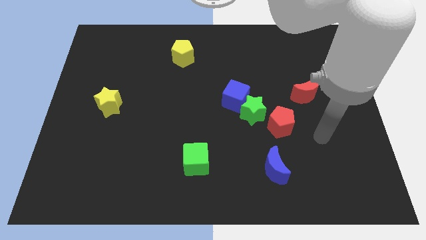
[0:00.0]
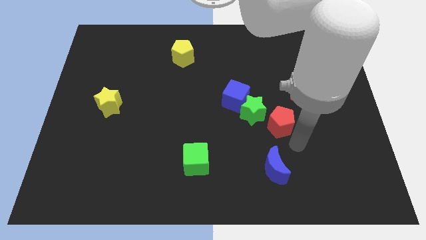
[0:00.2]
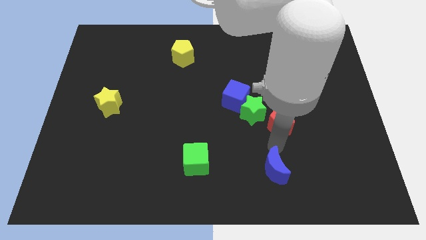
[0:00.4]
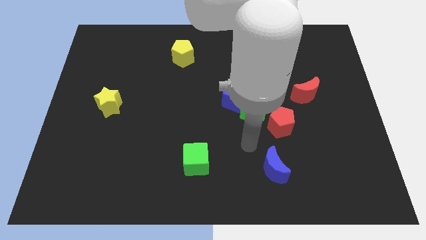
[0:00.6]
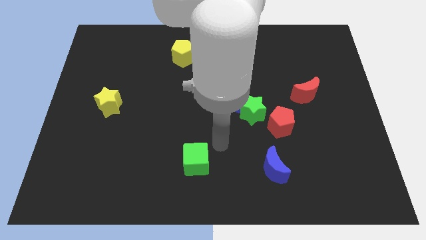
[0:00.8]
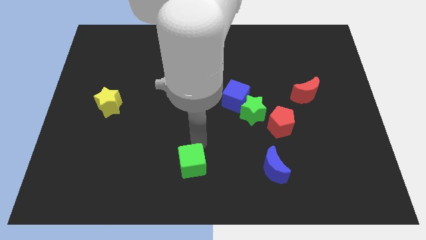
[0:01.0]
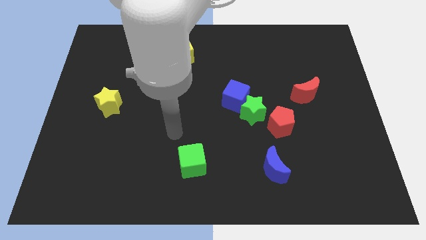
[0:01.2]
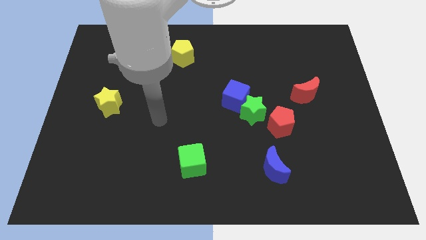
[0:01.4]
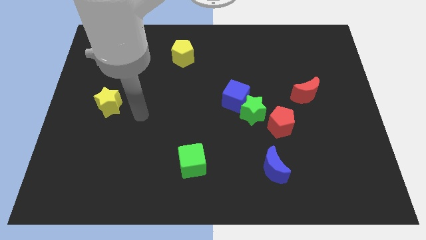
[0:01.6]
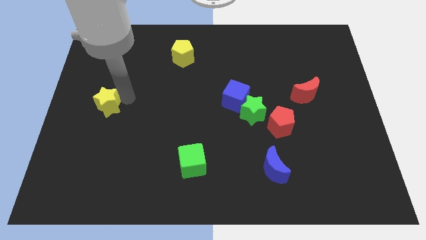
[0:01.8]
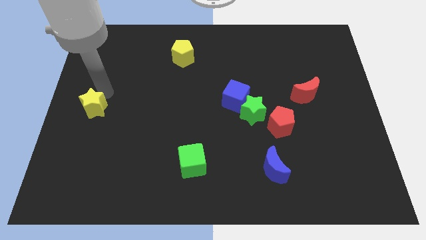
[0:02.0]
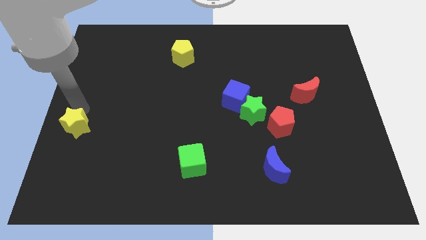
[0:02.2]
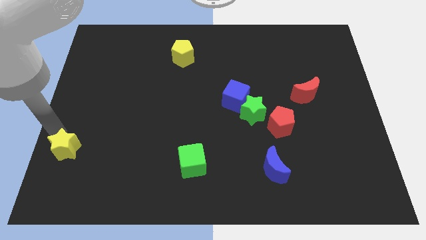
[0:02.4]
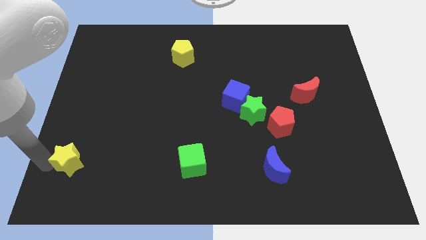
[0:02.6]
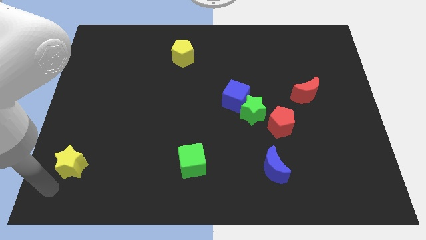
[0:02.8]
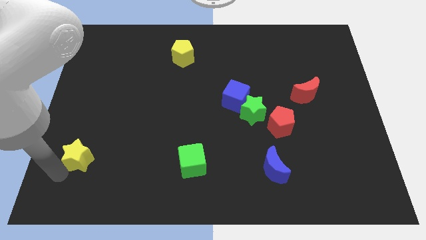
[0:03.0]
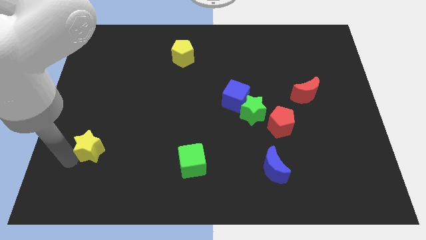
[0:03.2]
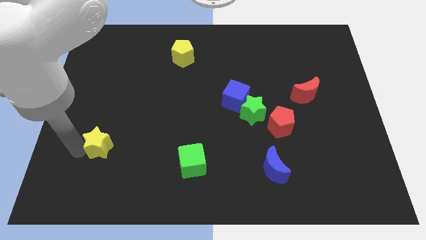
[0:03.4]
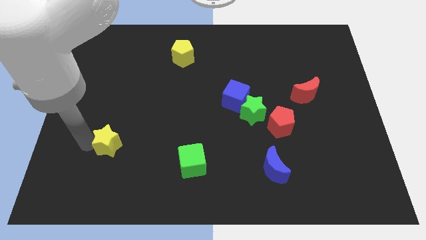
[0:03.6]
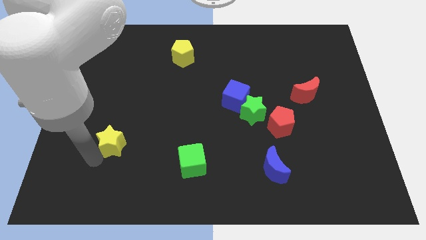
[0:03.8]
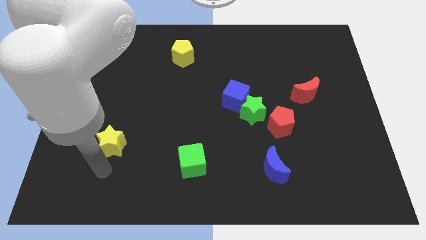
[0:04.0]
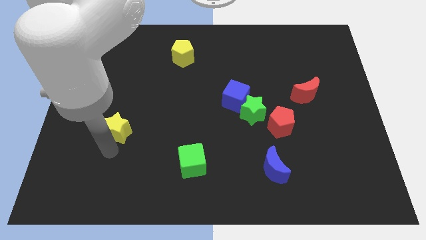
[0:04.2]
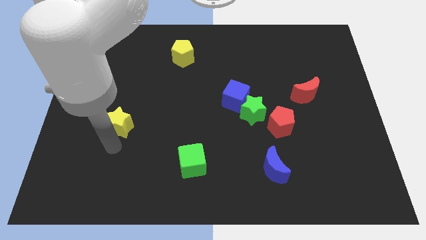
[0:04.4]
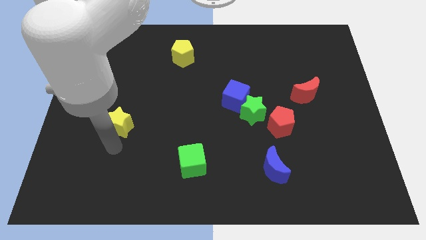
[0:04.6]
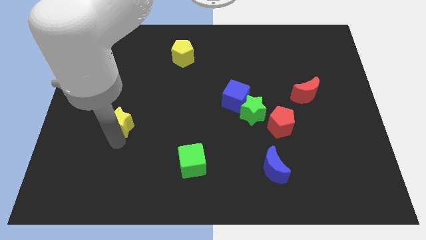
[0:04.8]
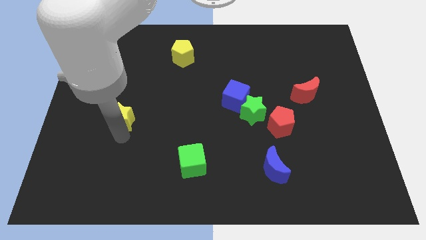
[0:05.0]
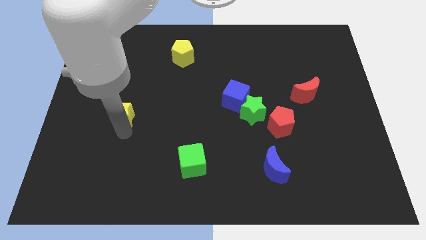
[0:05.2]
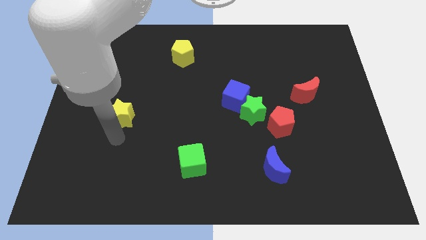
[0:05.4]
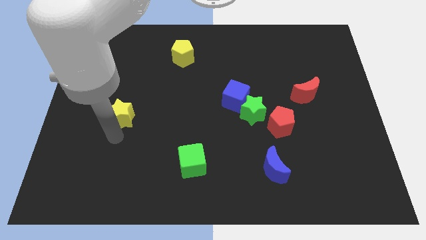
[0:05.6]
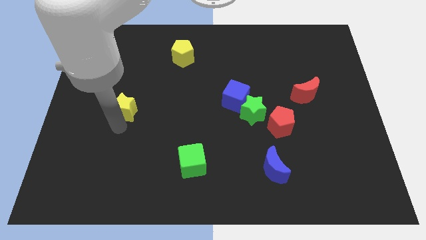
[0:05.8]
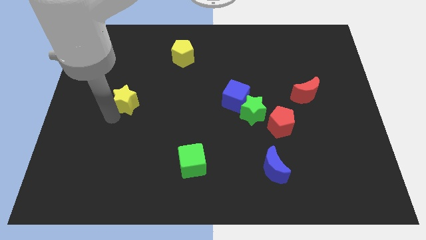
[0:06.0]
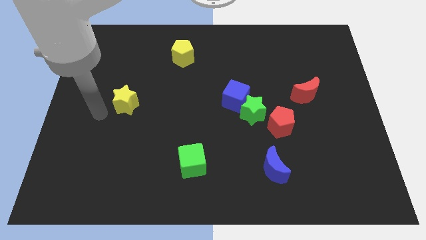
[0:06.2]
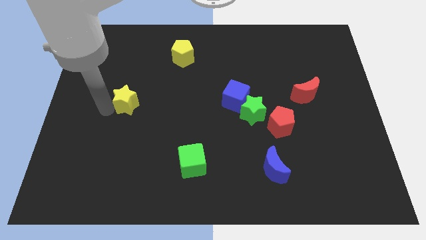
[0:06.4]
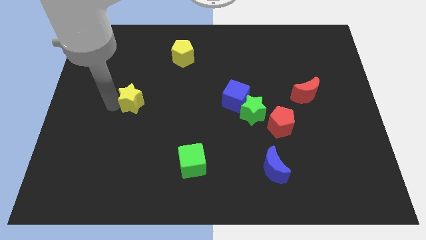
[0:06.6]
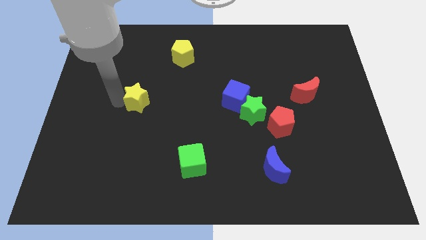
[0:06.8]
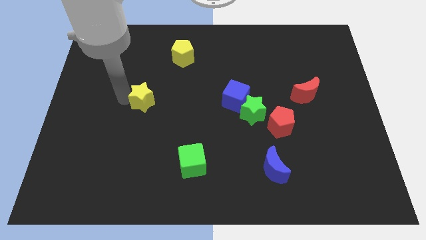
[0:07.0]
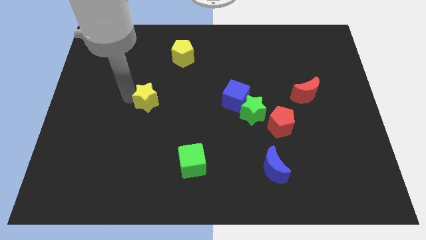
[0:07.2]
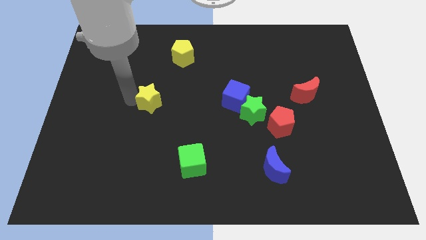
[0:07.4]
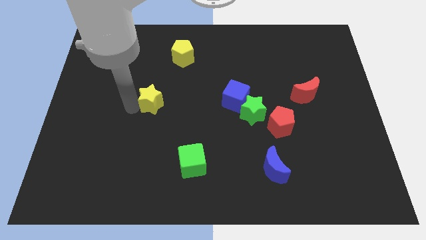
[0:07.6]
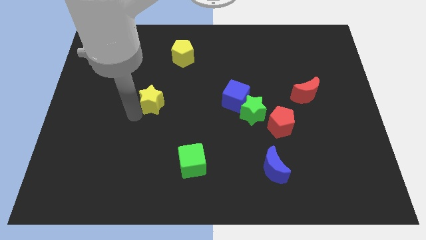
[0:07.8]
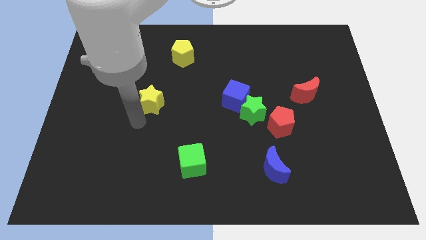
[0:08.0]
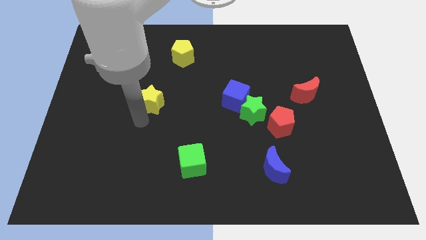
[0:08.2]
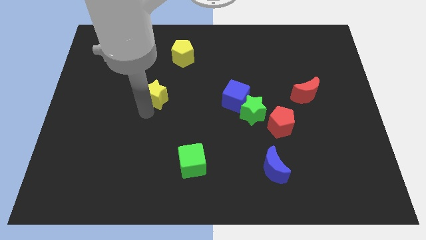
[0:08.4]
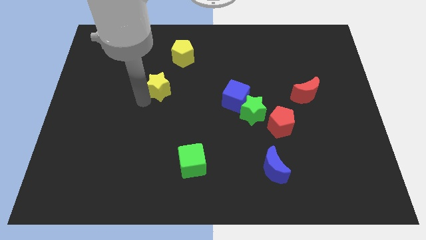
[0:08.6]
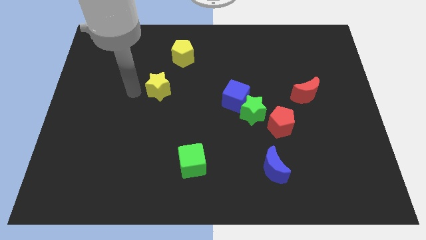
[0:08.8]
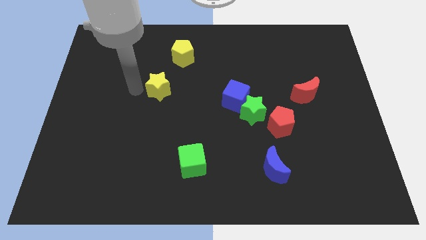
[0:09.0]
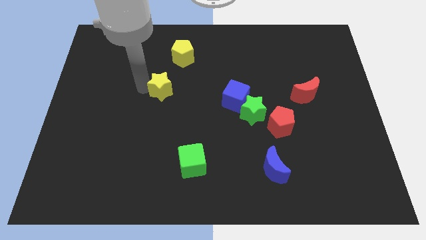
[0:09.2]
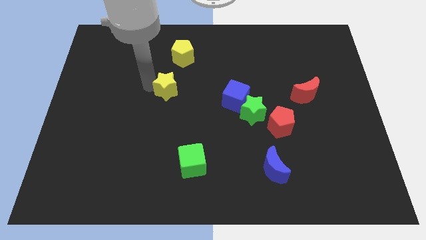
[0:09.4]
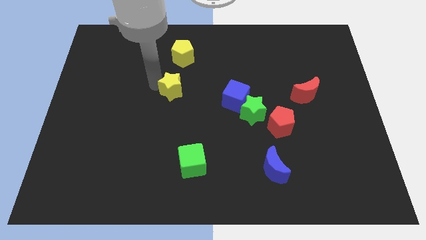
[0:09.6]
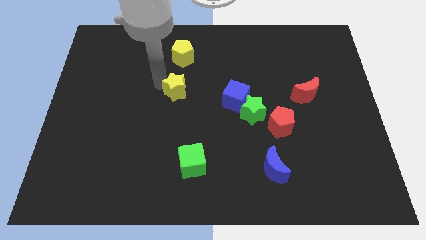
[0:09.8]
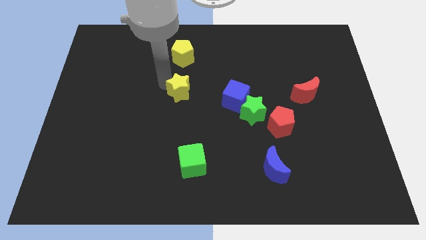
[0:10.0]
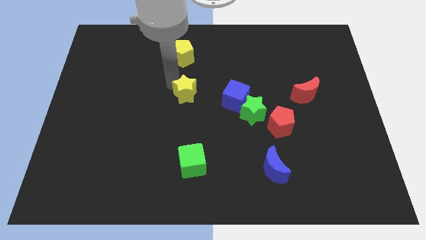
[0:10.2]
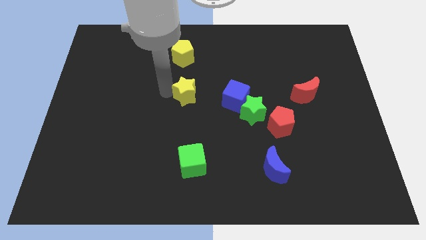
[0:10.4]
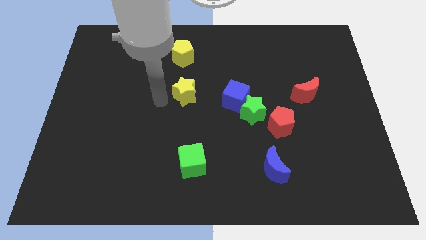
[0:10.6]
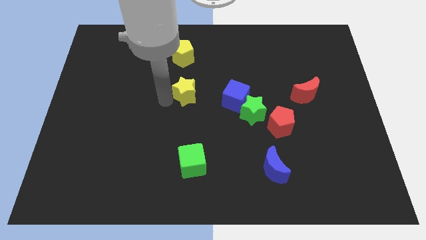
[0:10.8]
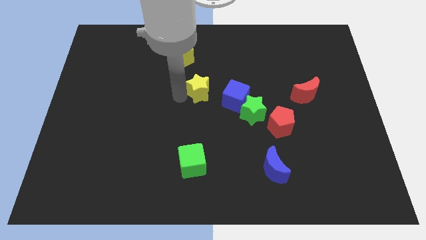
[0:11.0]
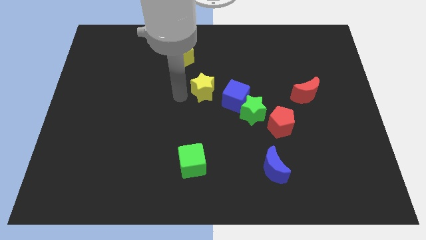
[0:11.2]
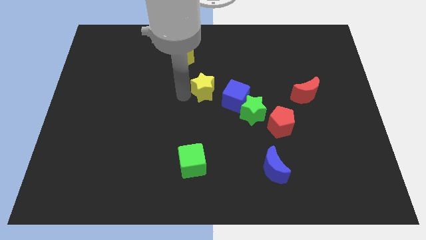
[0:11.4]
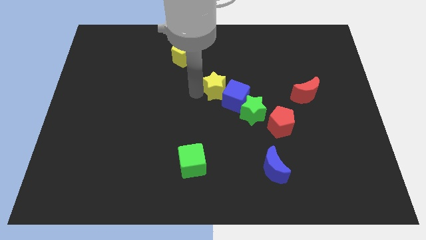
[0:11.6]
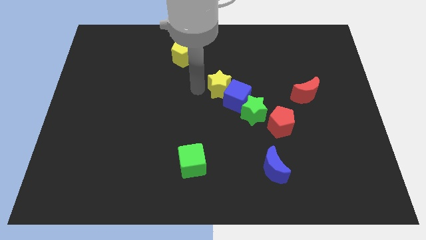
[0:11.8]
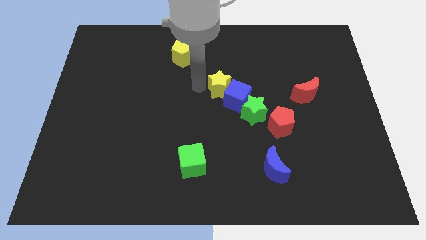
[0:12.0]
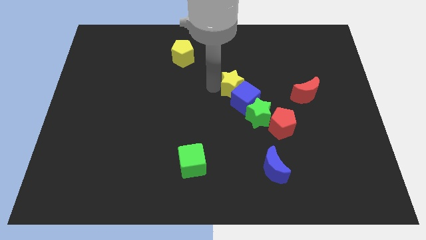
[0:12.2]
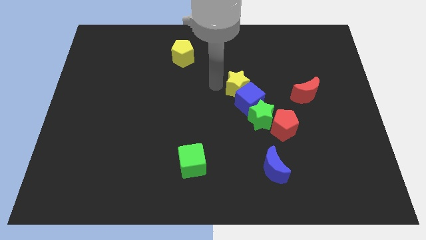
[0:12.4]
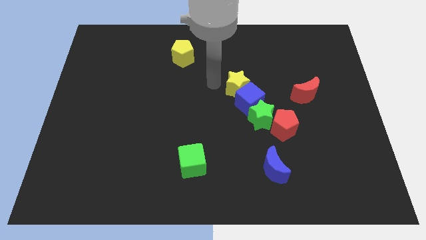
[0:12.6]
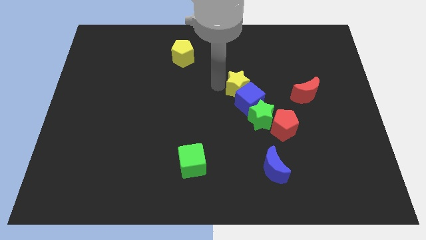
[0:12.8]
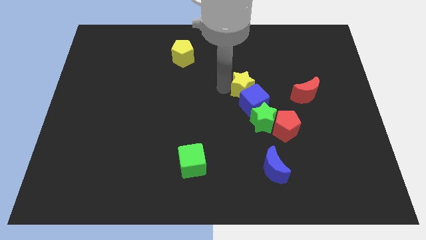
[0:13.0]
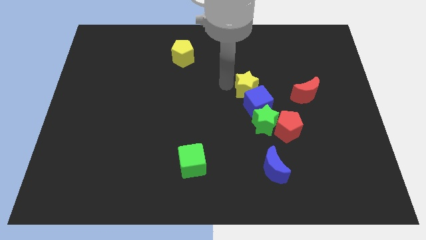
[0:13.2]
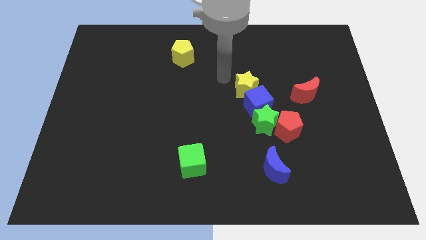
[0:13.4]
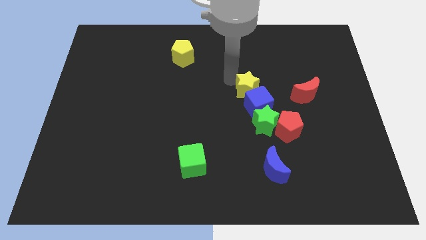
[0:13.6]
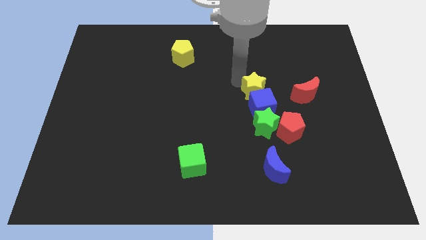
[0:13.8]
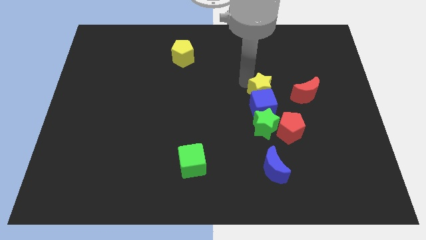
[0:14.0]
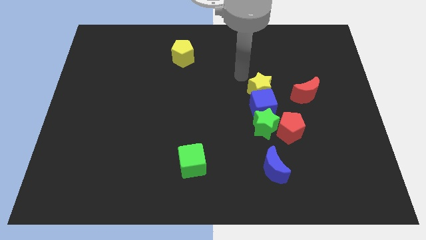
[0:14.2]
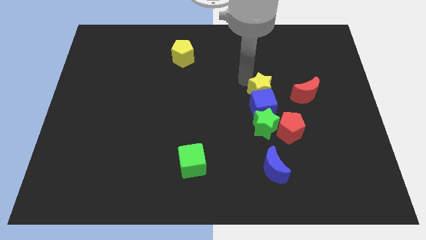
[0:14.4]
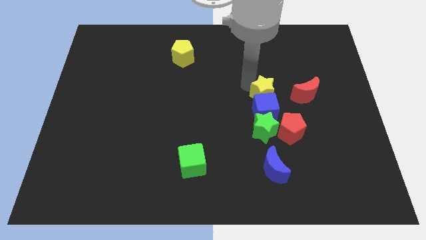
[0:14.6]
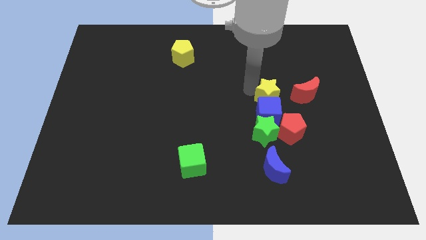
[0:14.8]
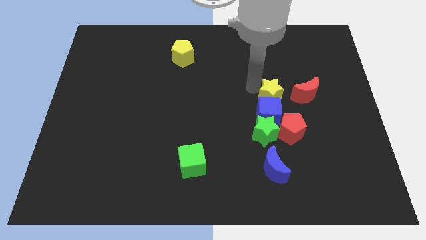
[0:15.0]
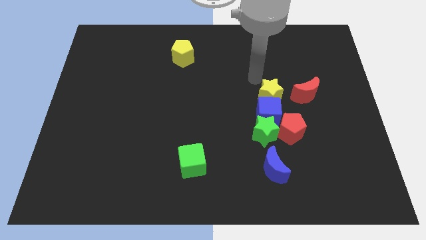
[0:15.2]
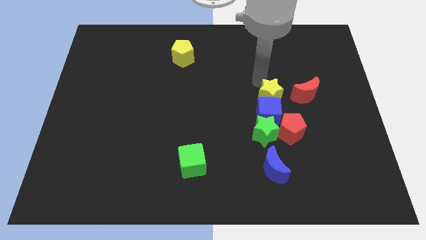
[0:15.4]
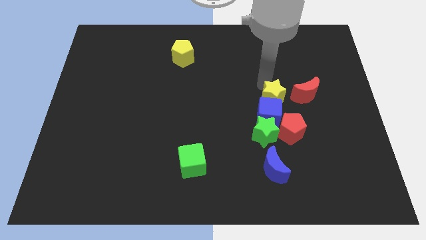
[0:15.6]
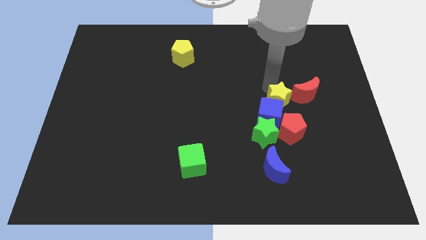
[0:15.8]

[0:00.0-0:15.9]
slide the yellow star to the top right of the green star
